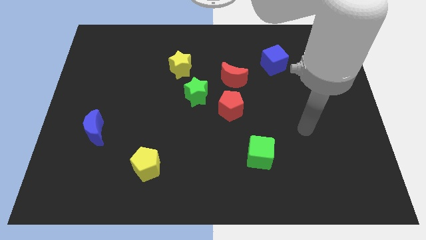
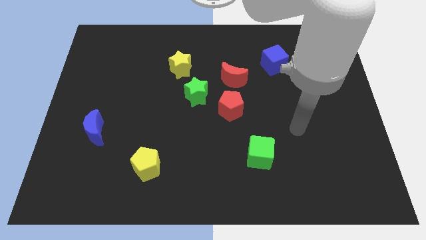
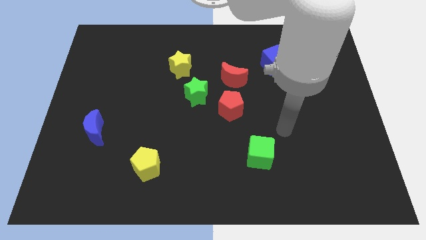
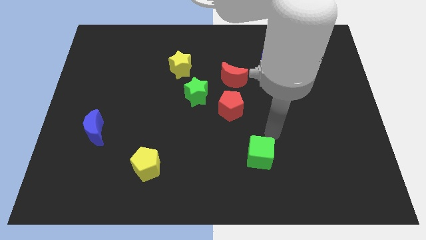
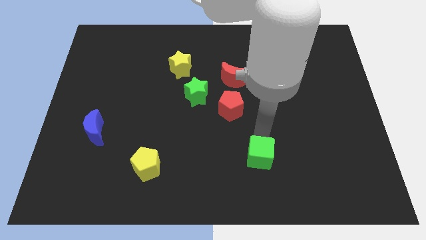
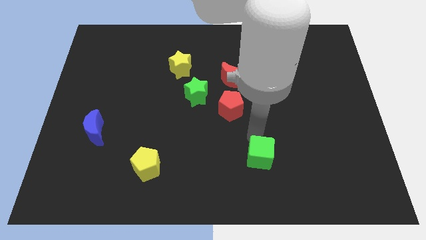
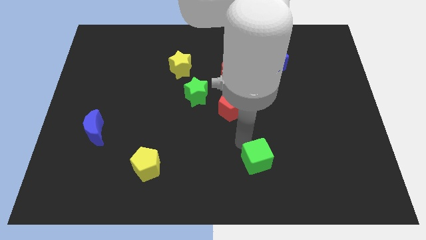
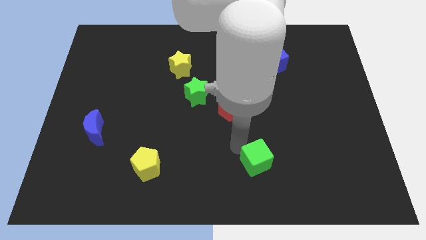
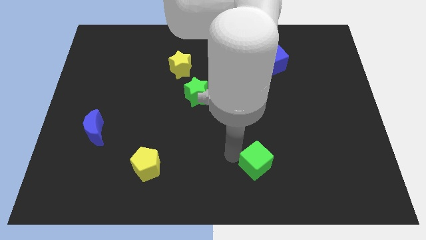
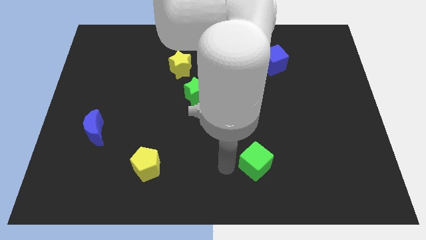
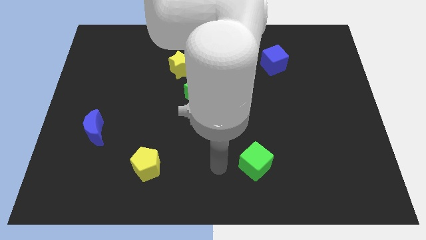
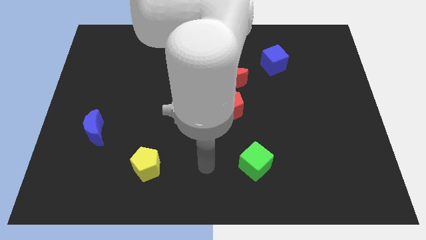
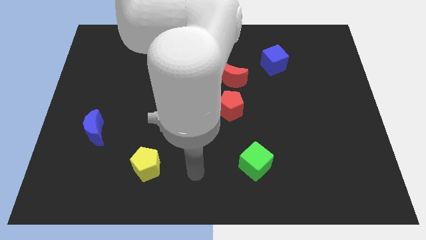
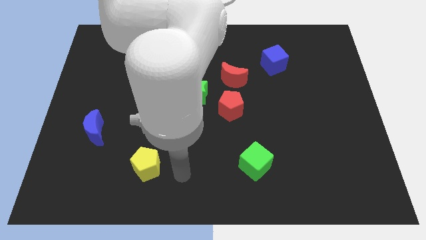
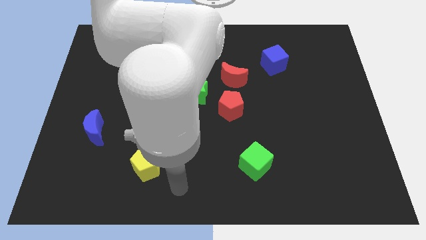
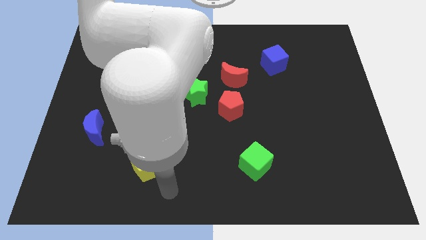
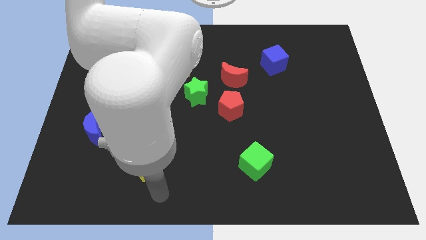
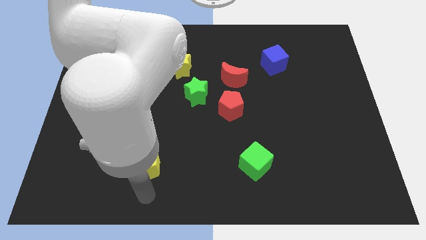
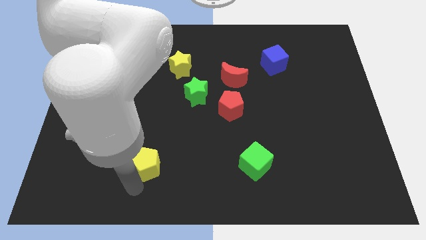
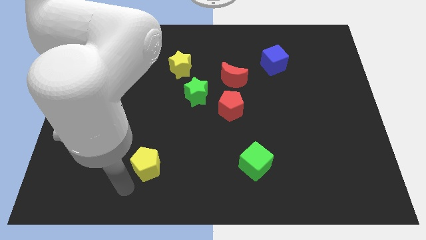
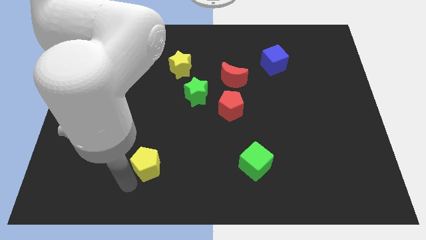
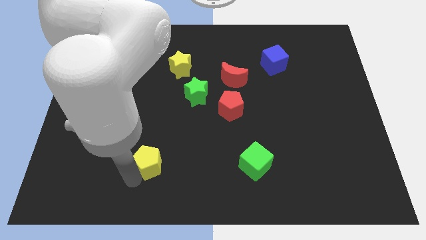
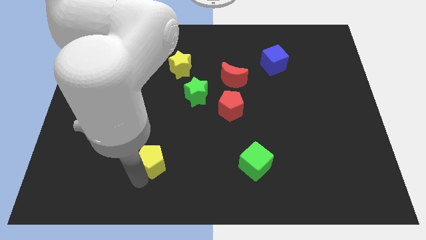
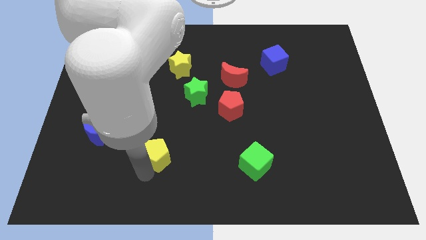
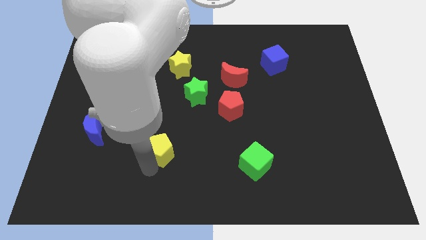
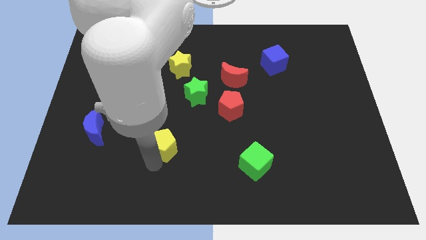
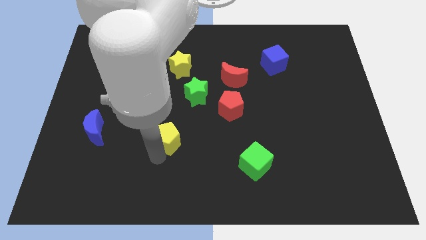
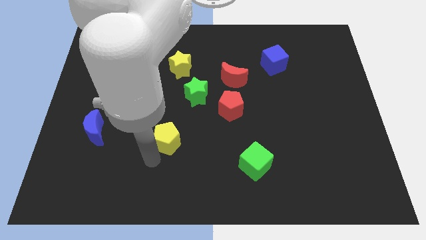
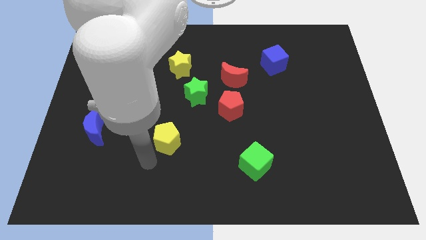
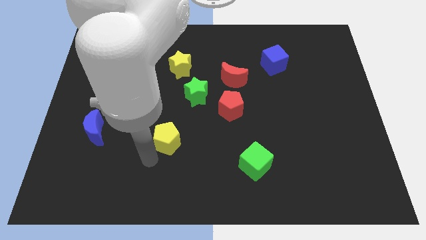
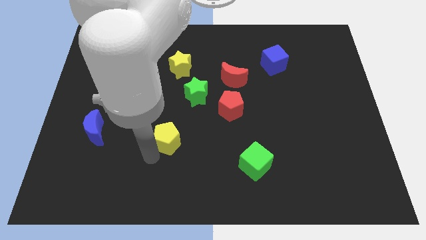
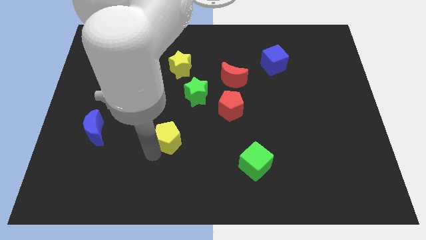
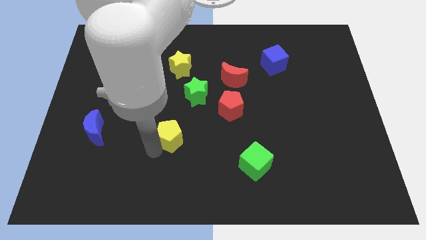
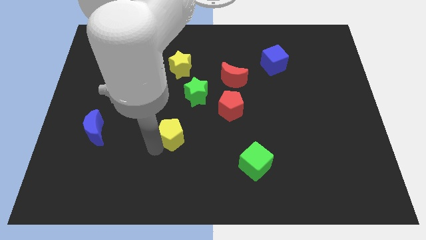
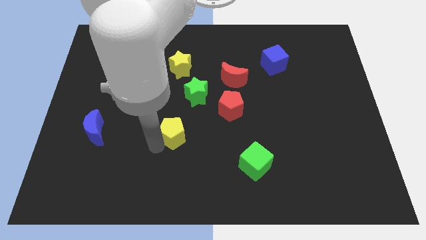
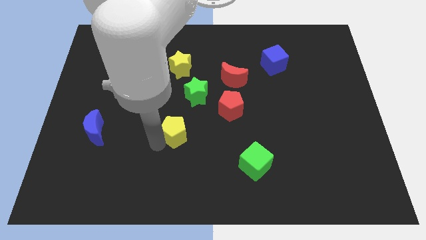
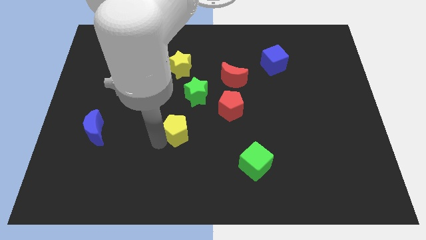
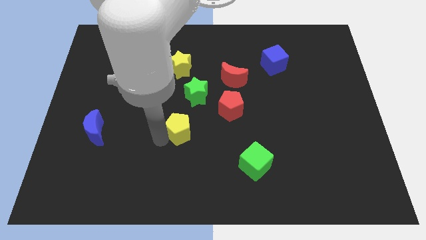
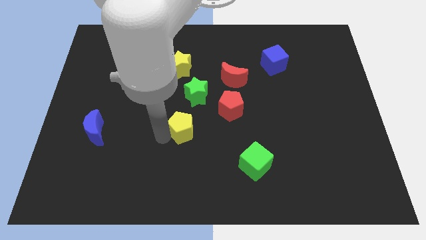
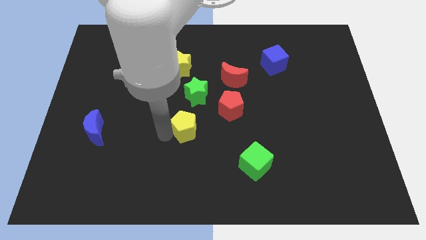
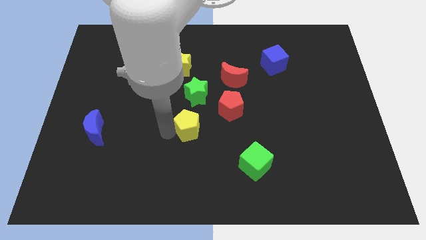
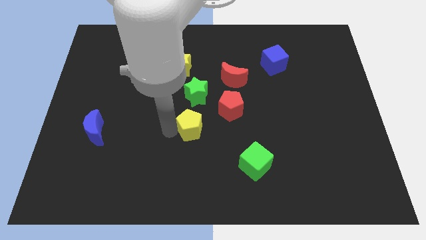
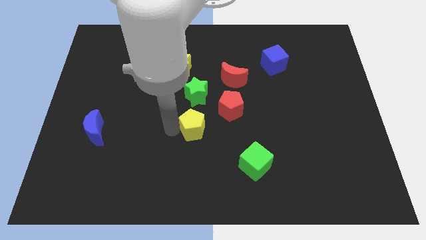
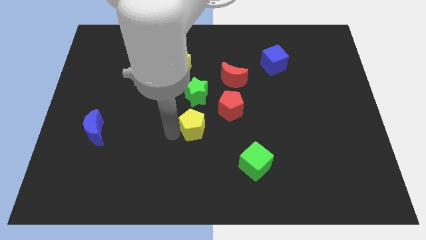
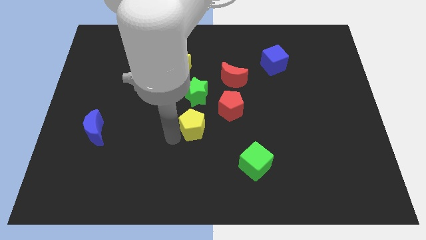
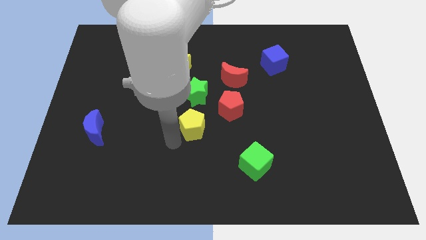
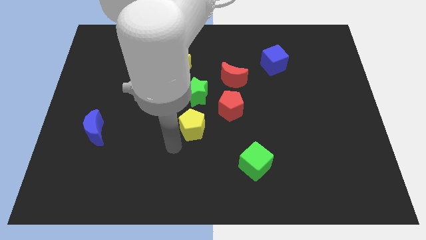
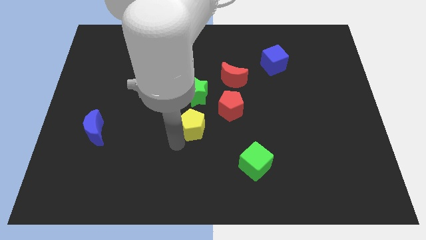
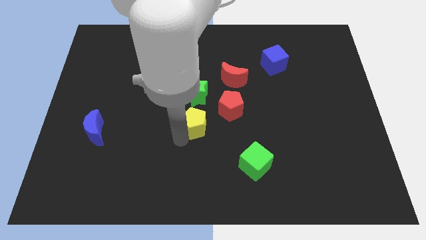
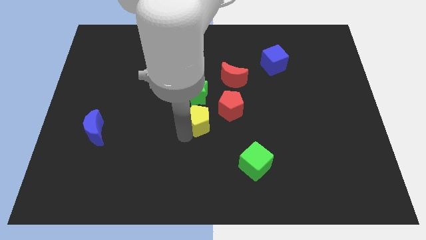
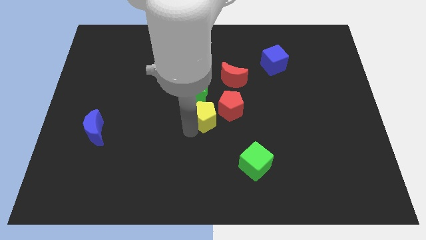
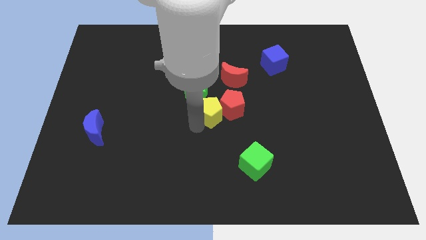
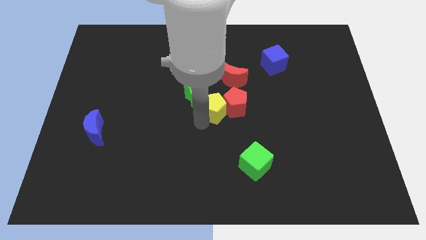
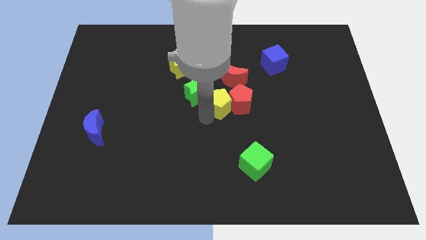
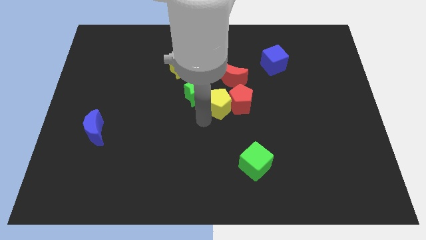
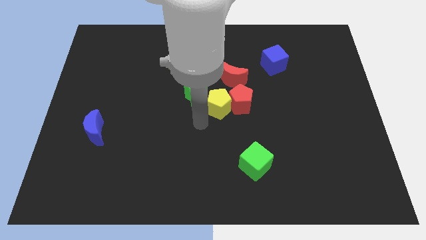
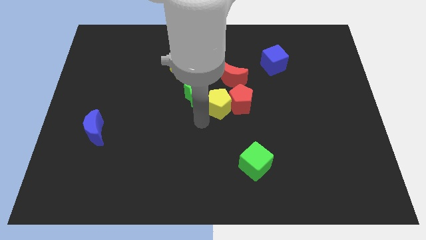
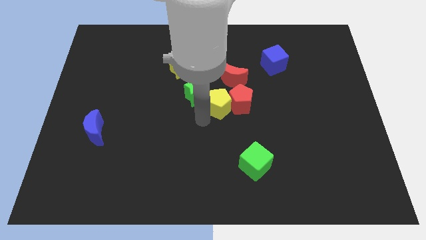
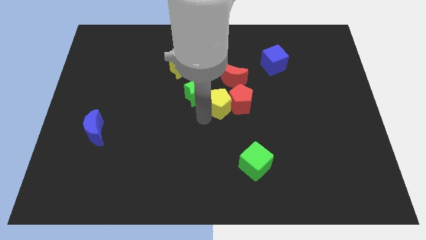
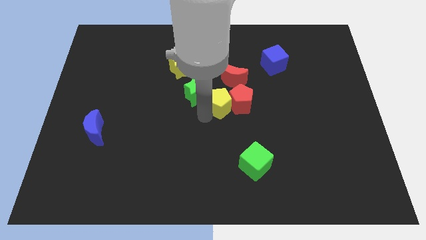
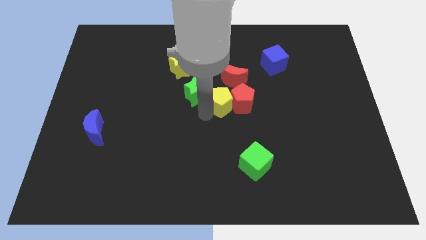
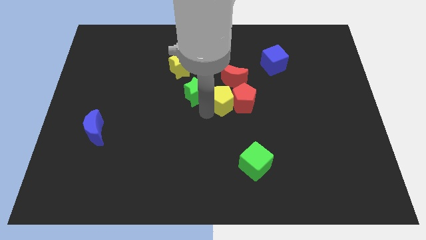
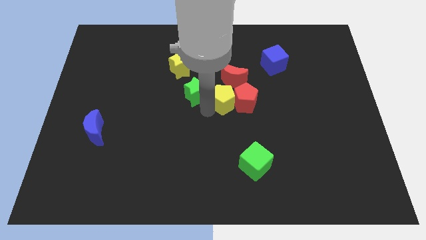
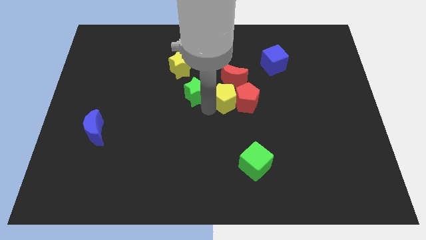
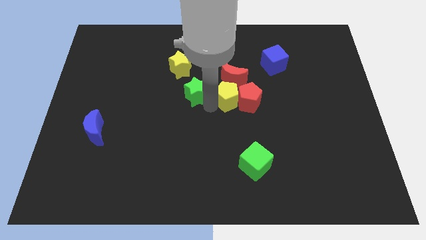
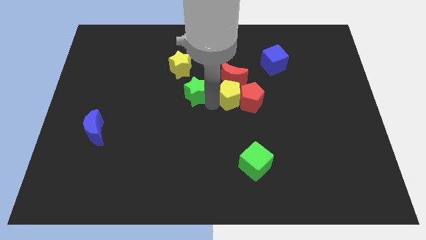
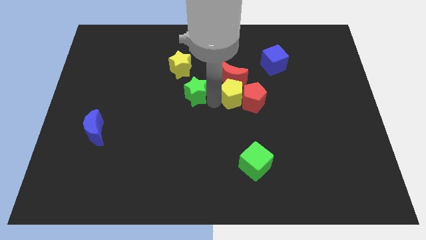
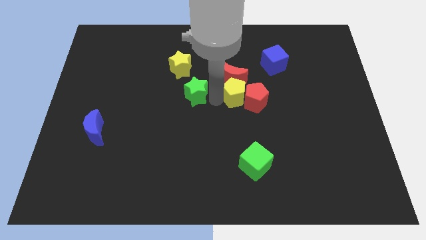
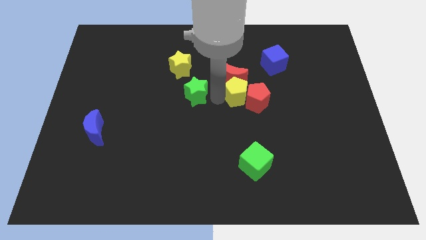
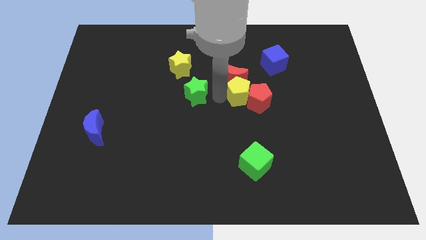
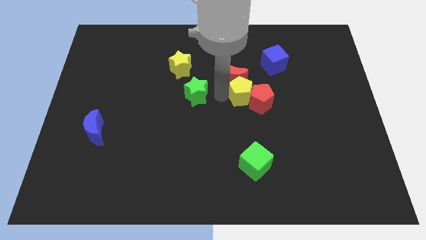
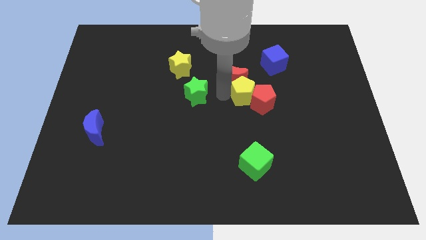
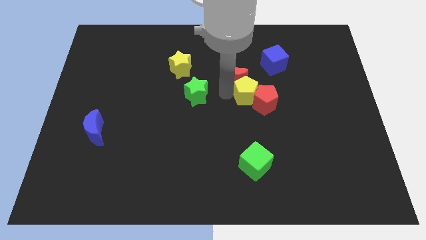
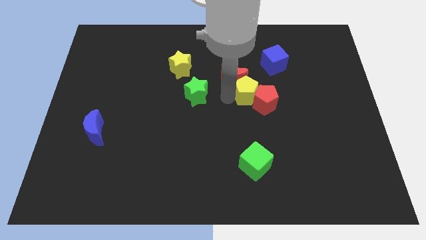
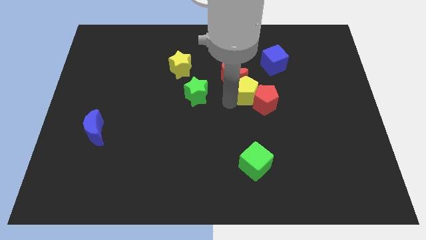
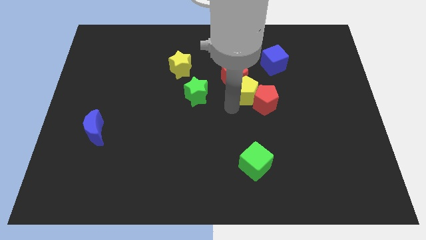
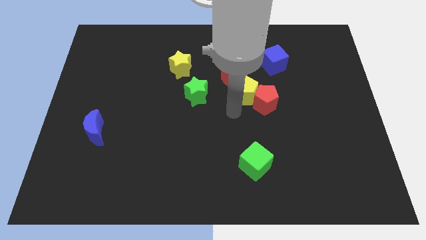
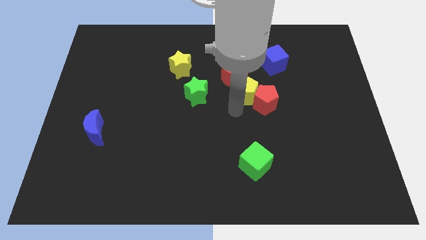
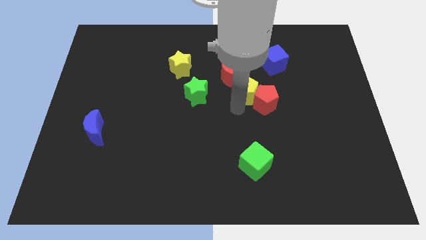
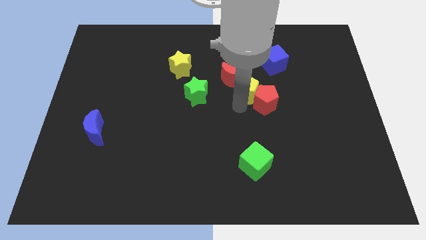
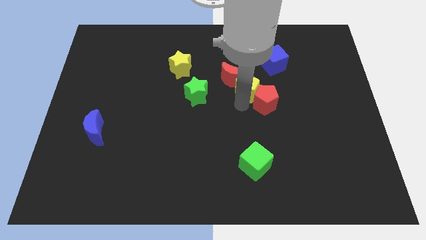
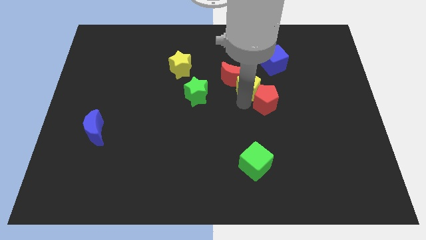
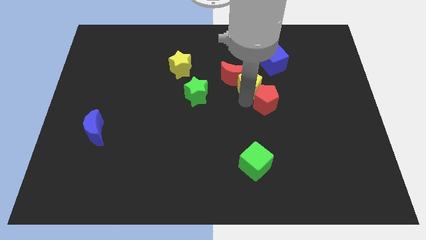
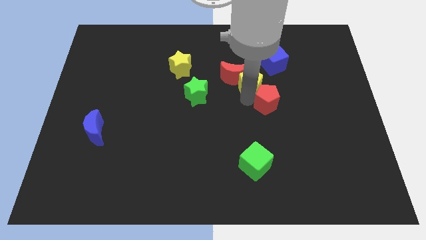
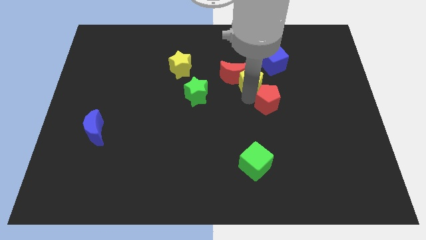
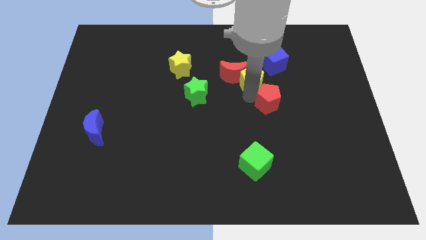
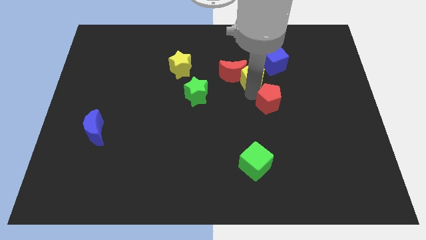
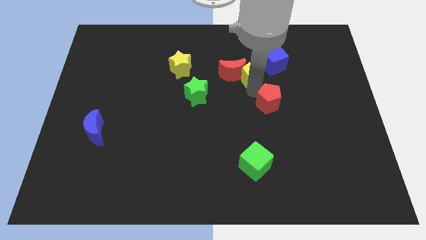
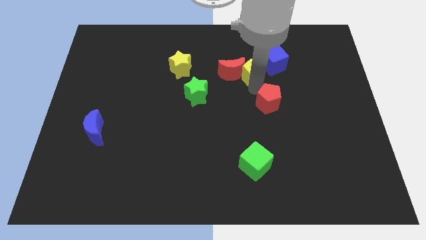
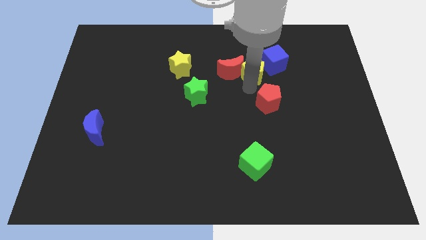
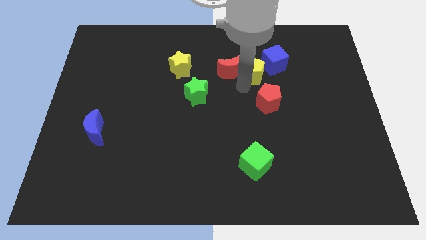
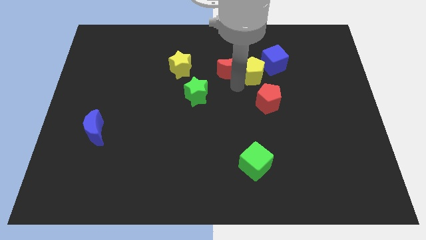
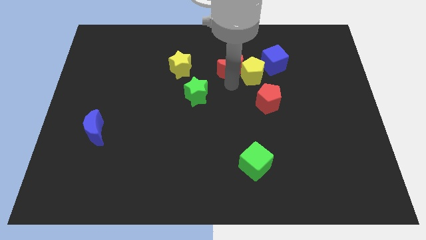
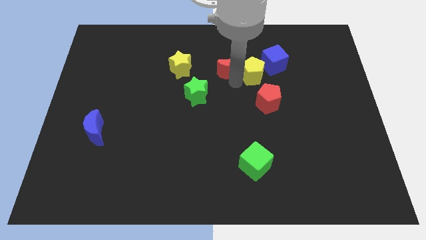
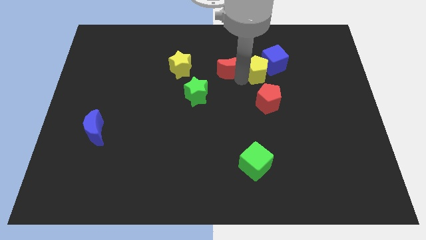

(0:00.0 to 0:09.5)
move the yellow pentagon close to the blue cube
